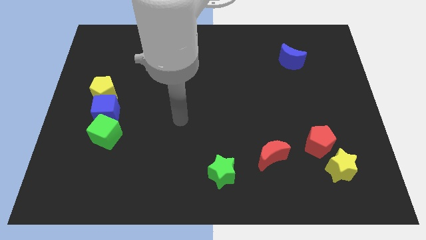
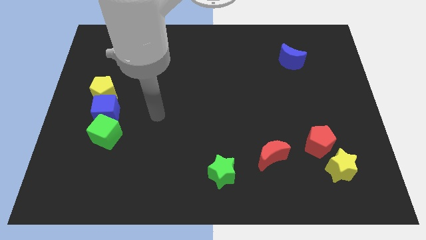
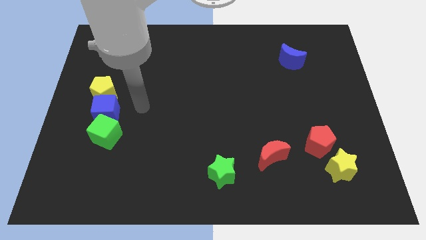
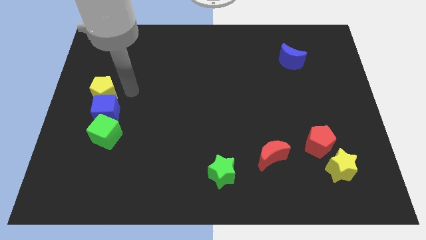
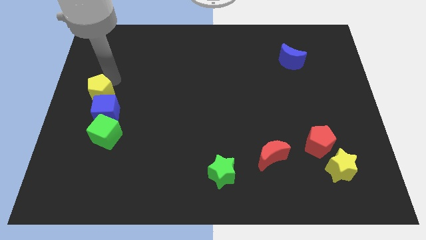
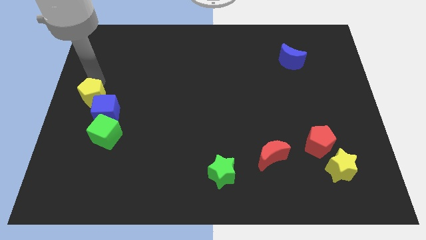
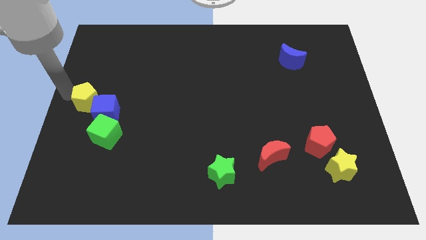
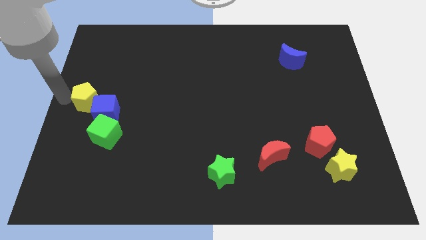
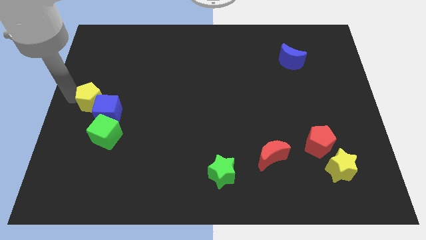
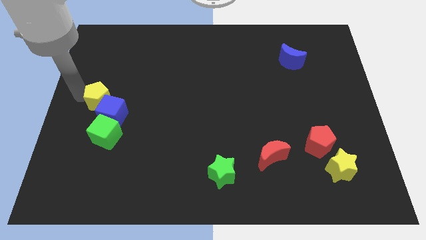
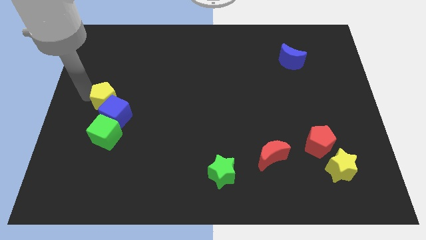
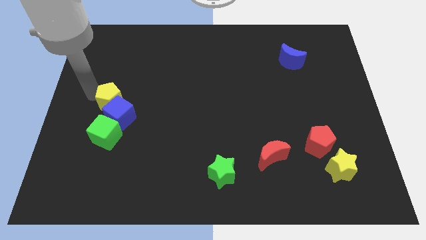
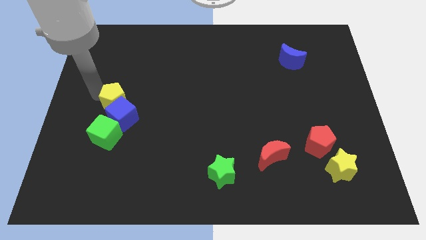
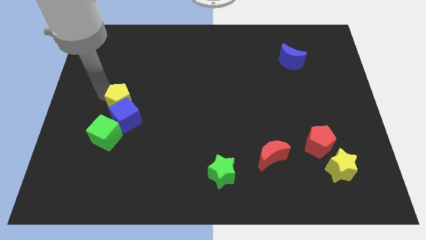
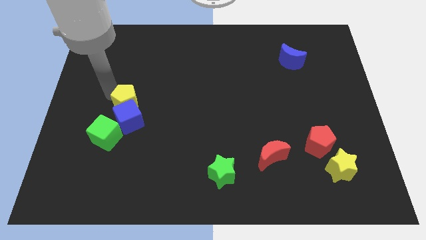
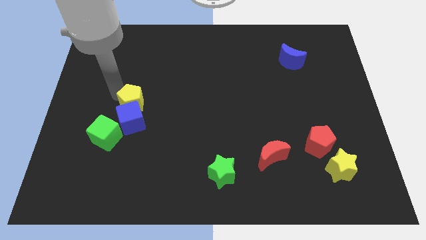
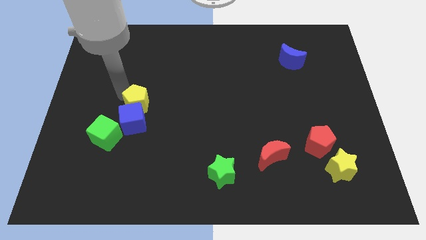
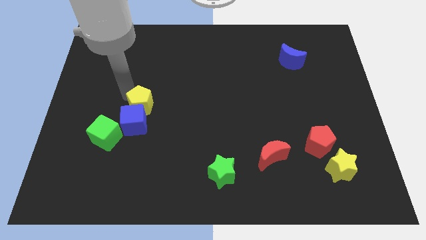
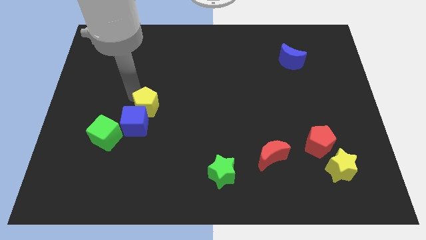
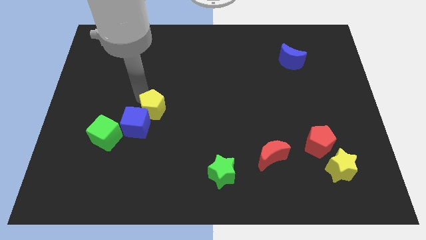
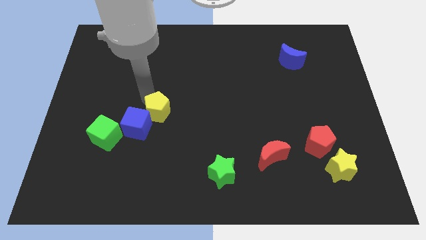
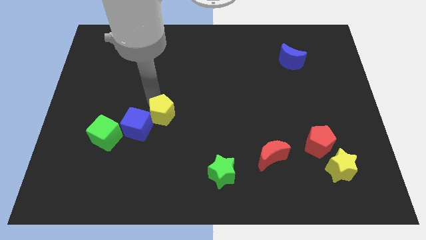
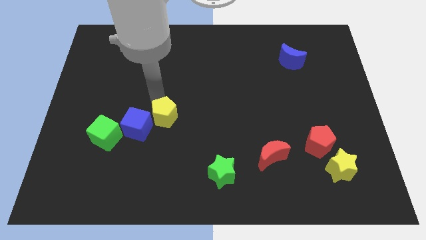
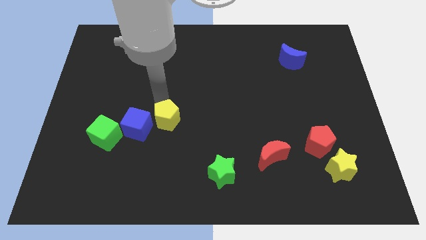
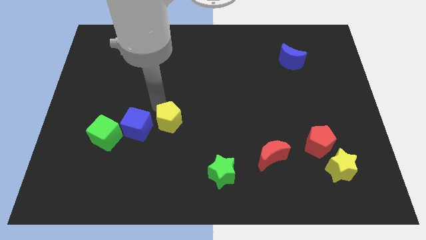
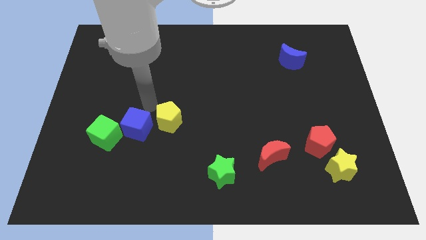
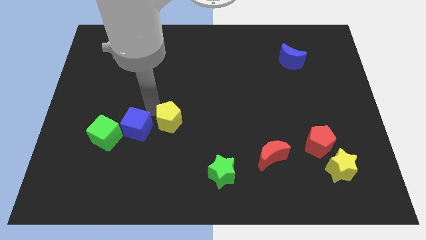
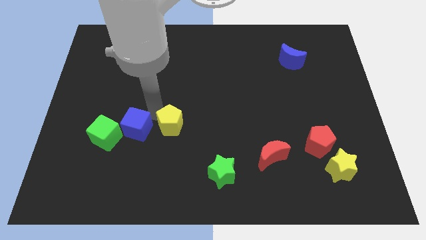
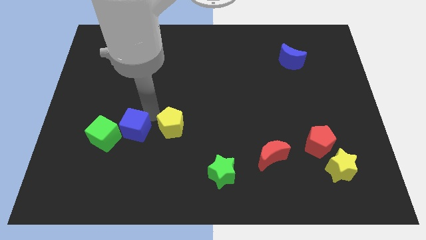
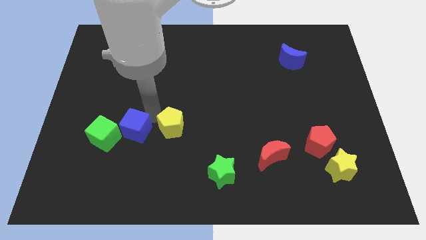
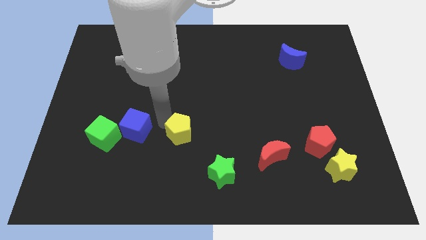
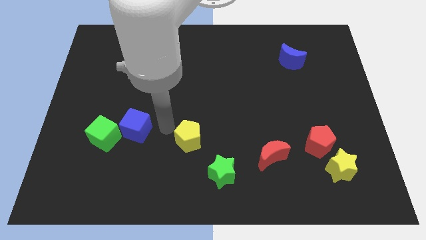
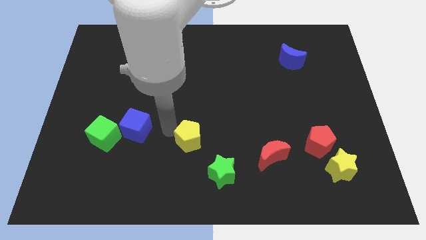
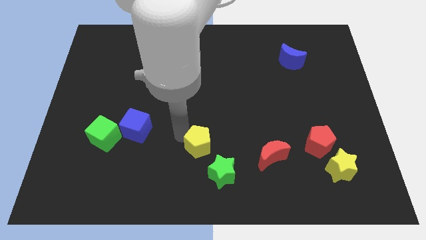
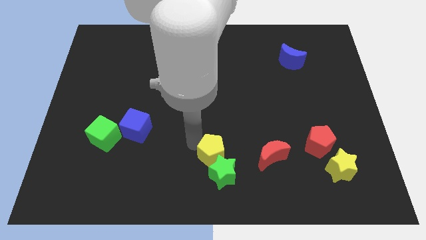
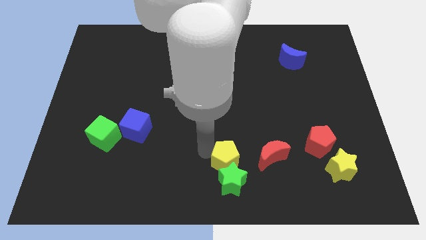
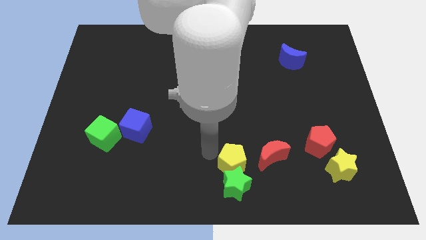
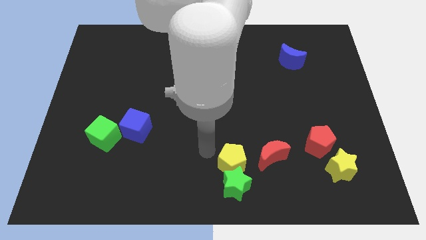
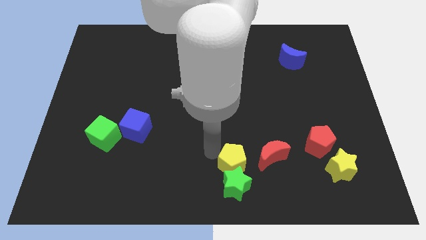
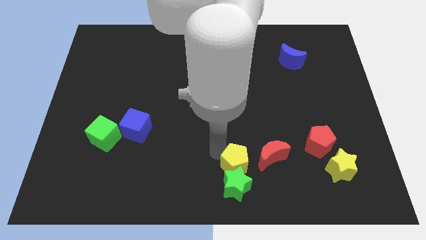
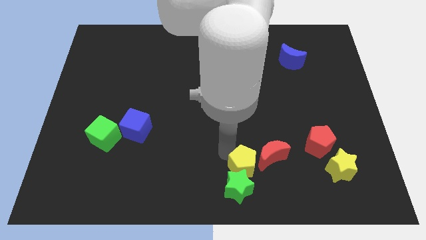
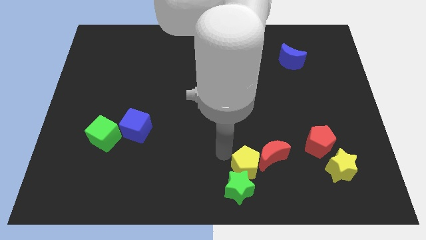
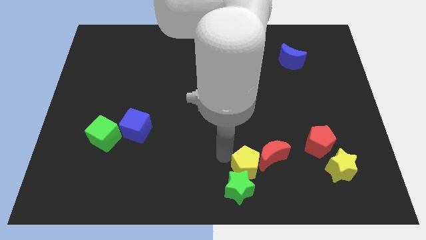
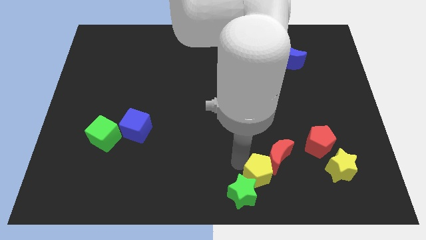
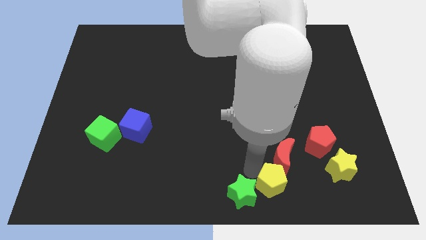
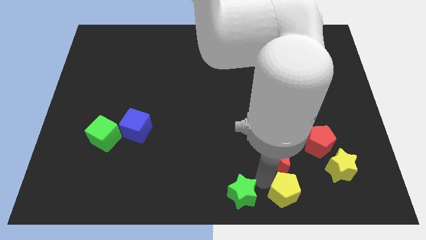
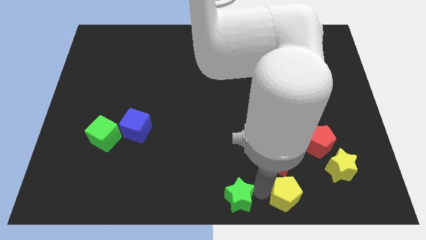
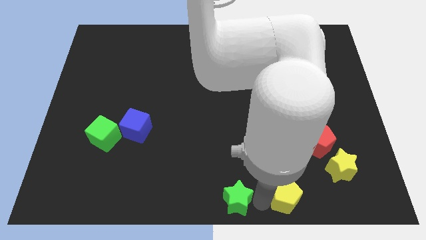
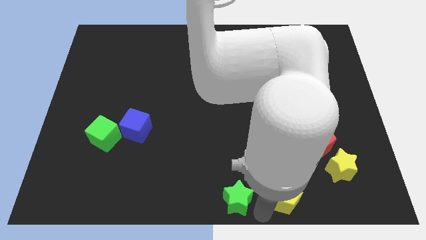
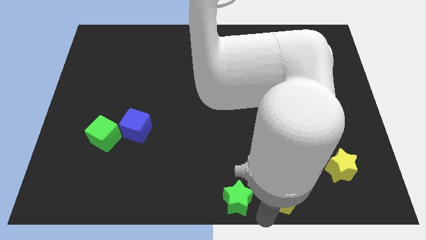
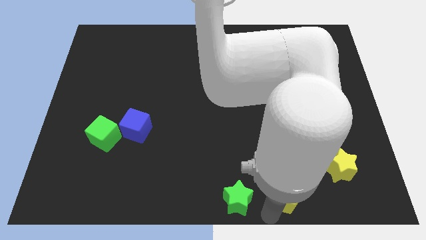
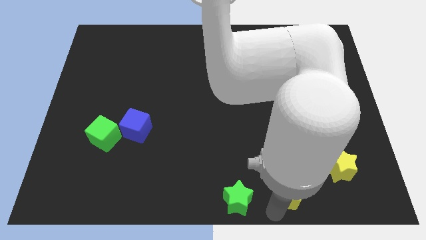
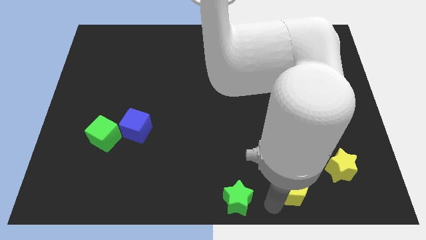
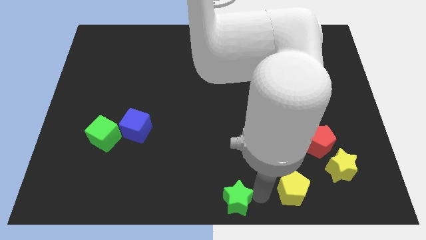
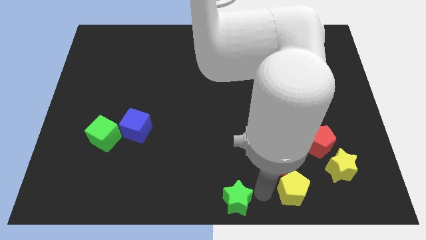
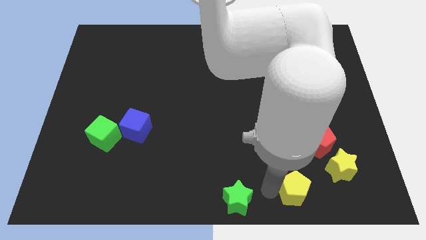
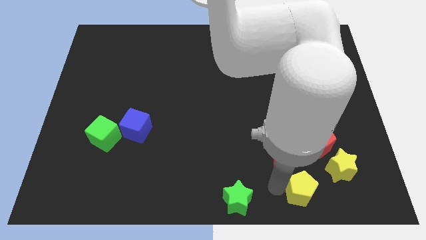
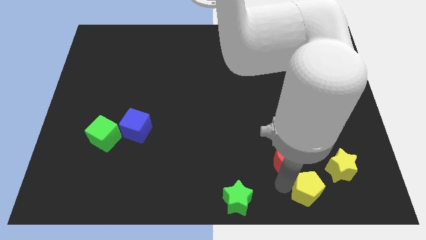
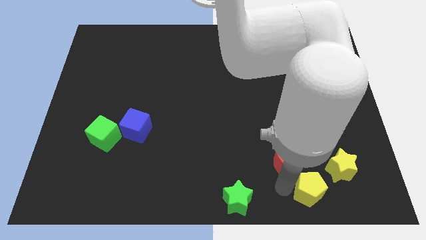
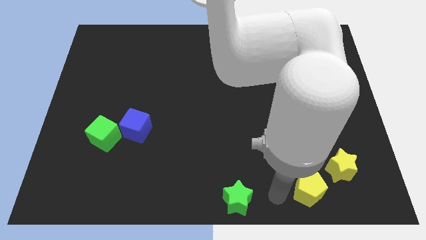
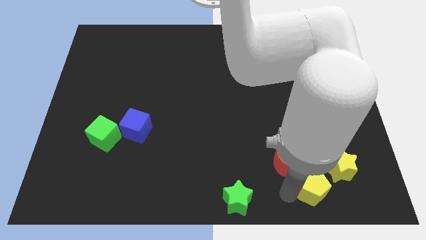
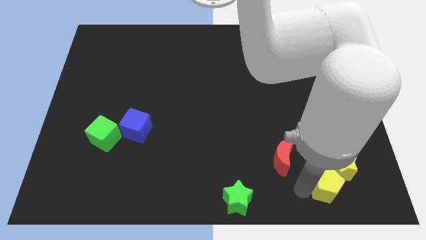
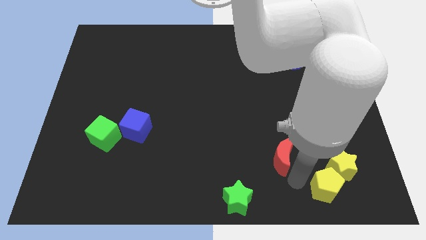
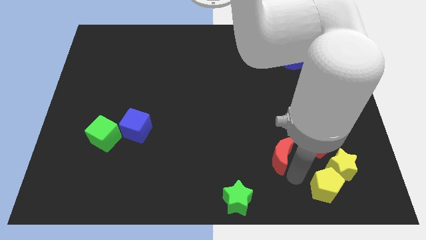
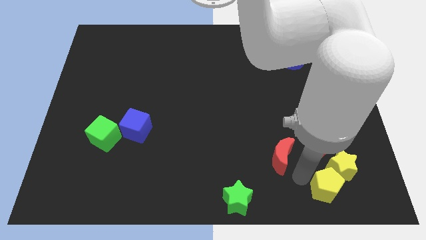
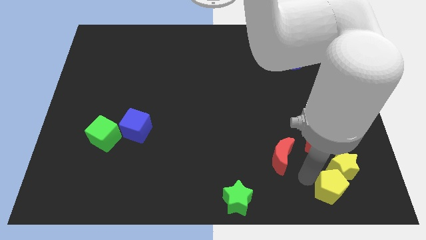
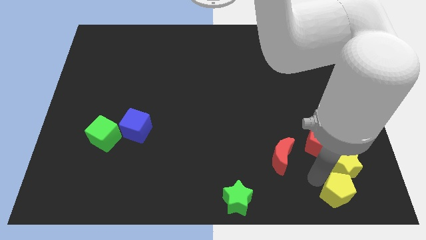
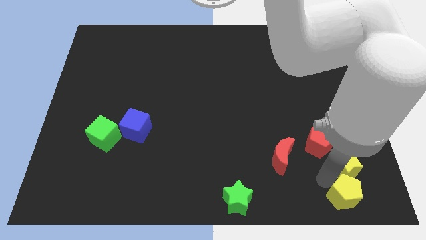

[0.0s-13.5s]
push the yellow pentagon to the bottom right of the board
